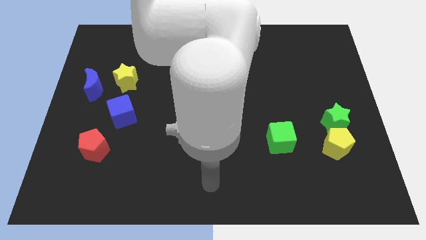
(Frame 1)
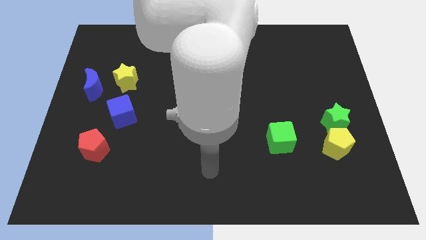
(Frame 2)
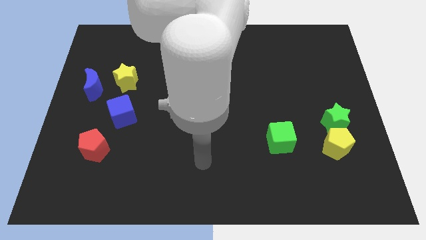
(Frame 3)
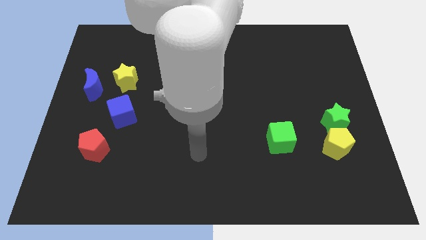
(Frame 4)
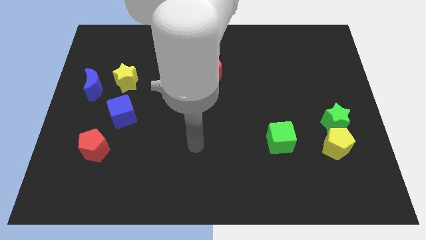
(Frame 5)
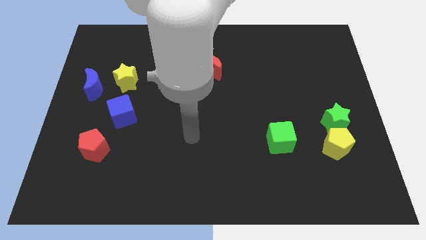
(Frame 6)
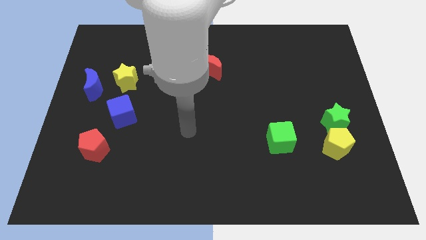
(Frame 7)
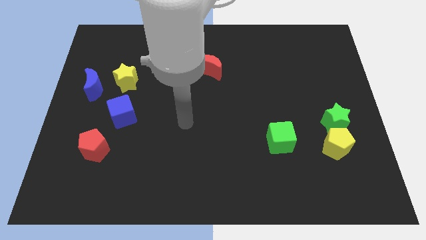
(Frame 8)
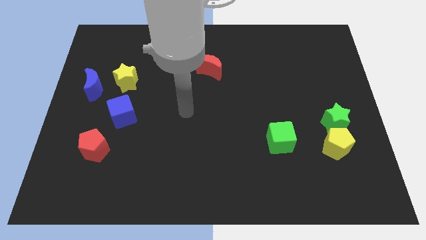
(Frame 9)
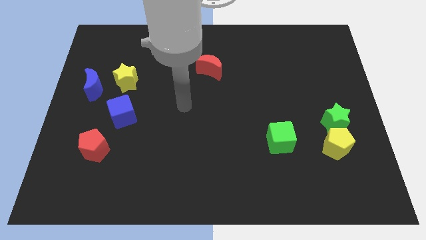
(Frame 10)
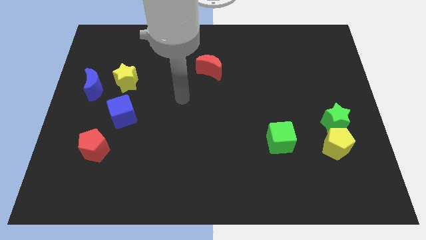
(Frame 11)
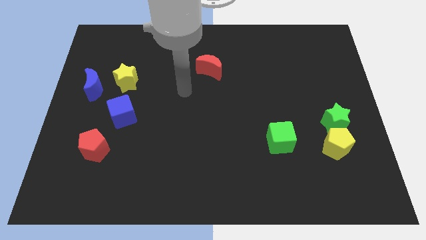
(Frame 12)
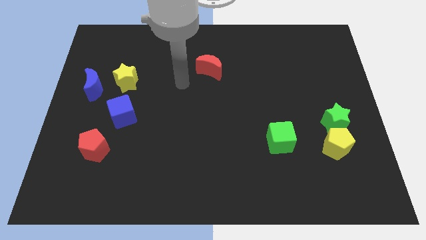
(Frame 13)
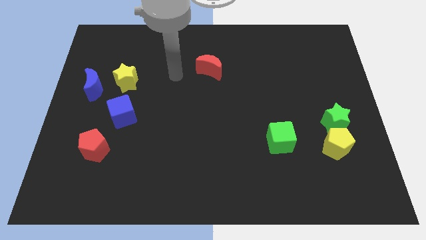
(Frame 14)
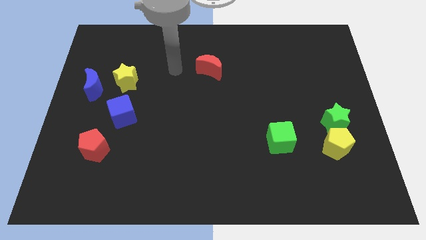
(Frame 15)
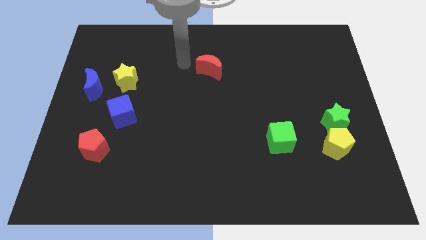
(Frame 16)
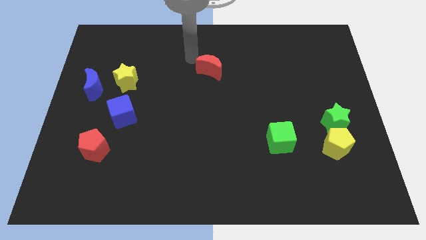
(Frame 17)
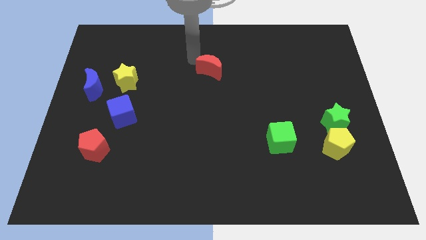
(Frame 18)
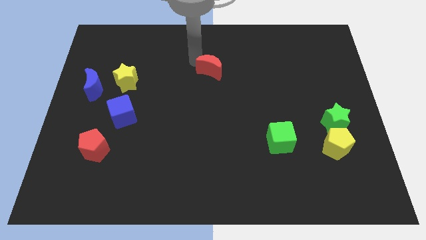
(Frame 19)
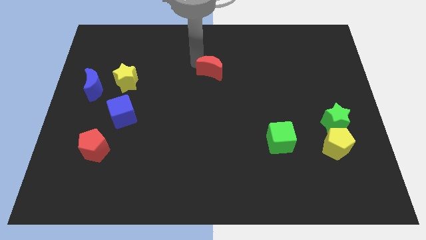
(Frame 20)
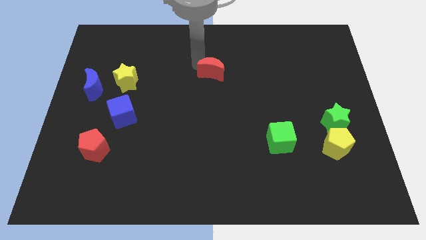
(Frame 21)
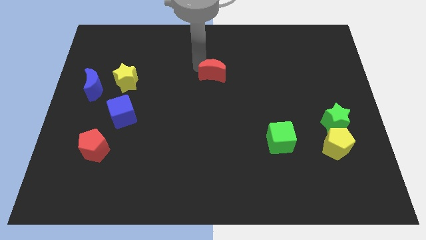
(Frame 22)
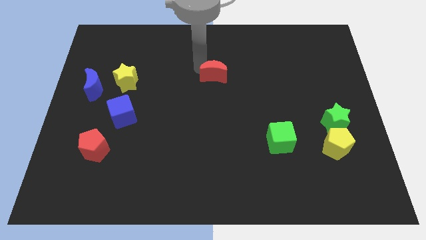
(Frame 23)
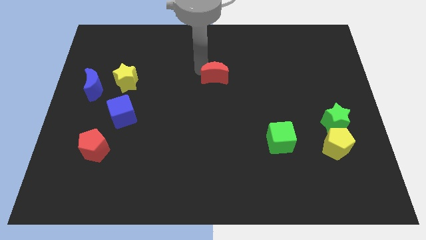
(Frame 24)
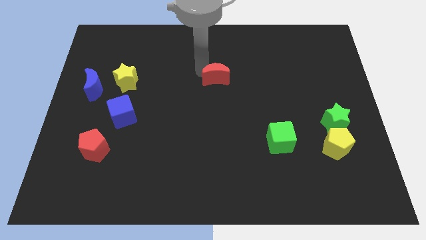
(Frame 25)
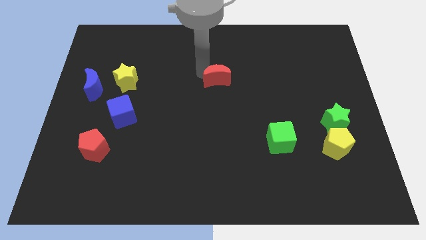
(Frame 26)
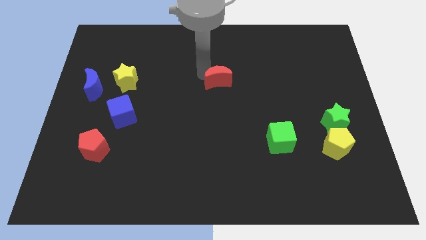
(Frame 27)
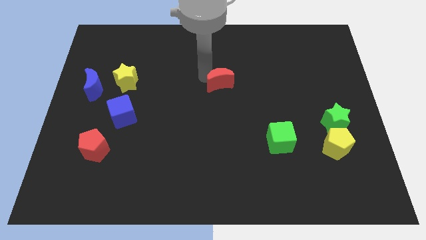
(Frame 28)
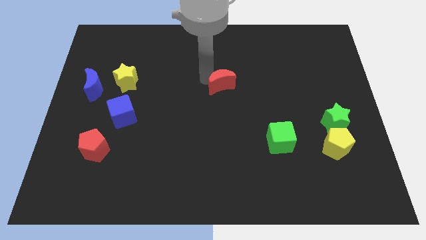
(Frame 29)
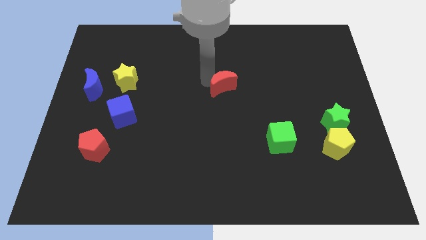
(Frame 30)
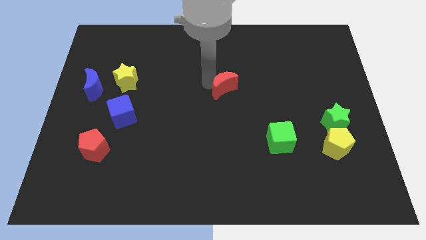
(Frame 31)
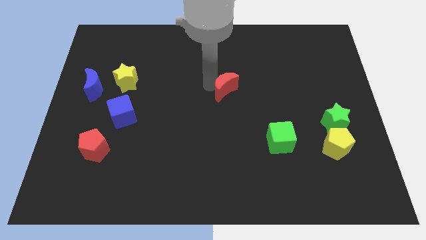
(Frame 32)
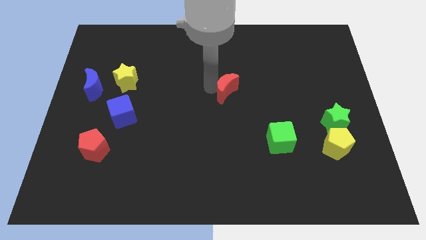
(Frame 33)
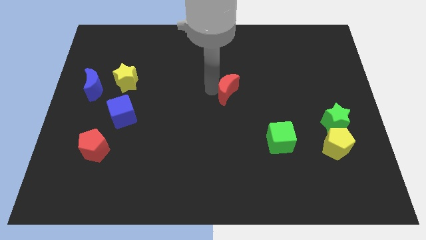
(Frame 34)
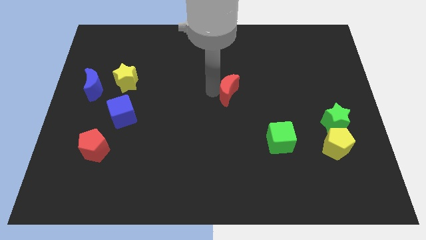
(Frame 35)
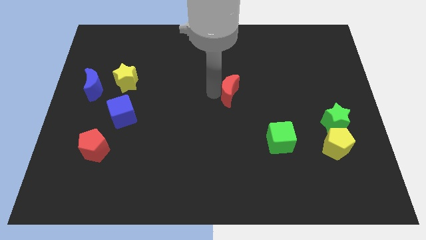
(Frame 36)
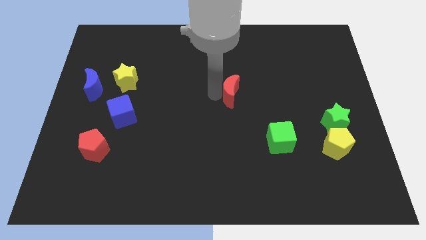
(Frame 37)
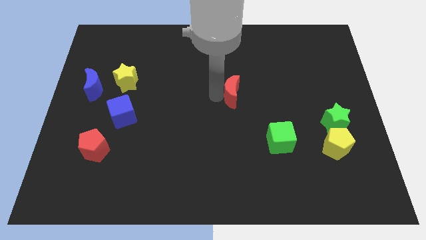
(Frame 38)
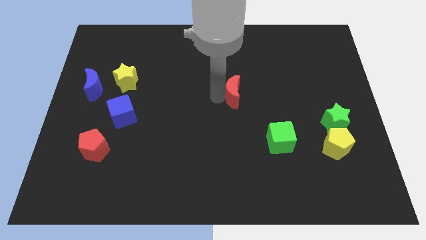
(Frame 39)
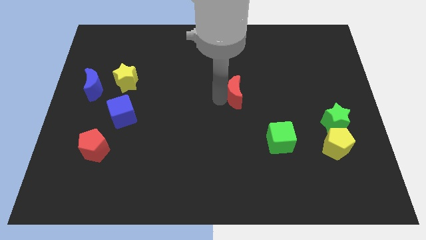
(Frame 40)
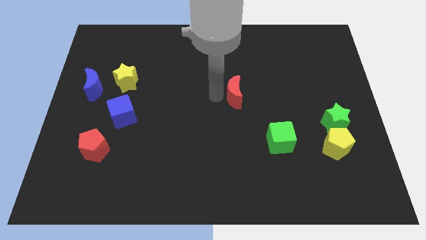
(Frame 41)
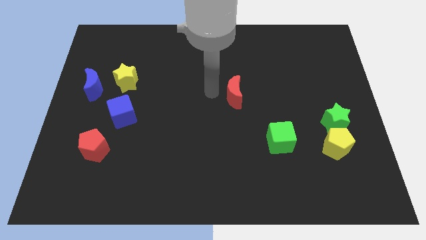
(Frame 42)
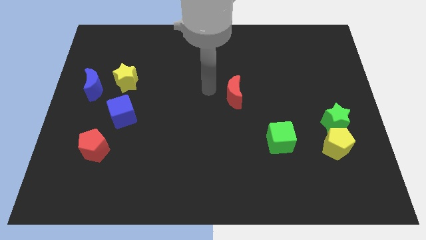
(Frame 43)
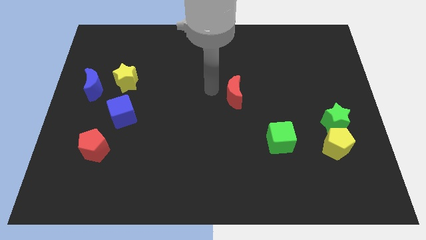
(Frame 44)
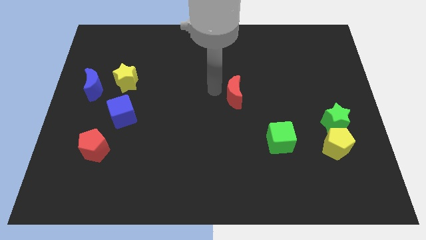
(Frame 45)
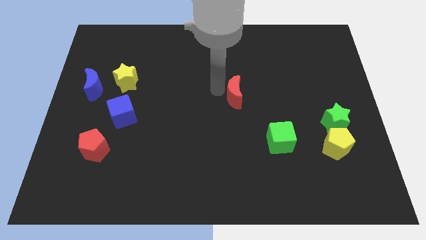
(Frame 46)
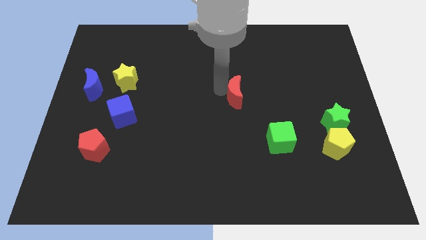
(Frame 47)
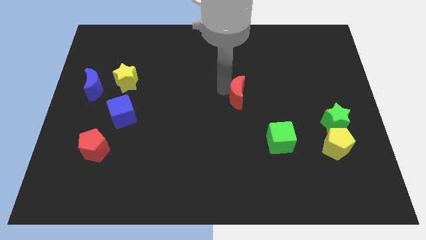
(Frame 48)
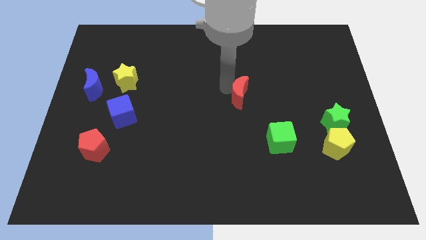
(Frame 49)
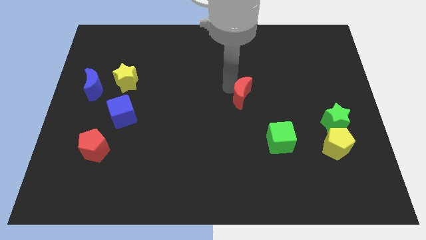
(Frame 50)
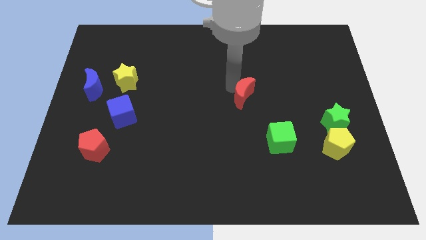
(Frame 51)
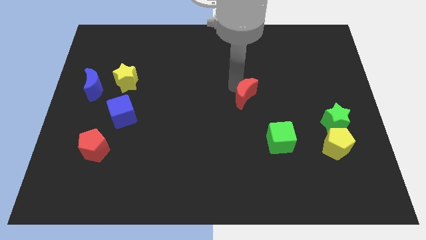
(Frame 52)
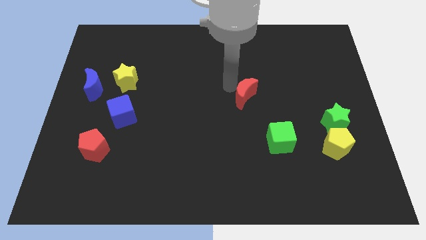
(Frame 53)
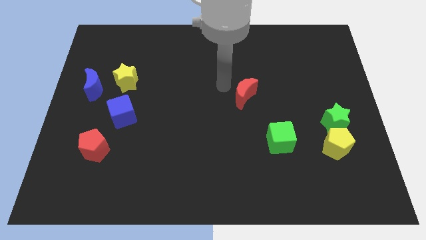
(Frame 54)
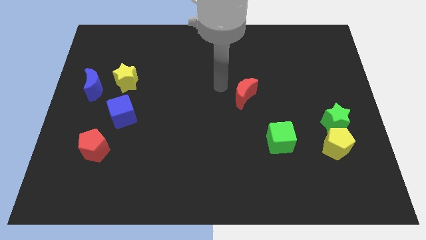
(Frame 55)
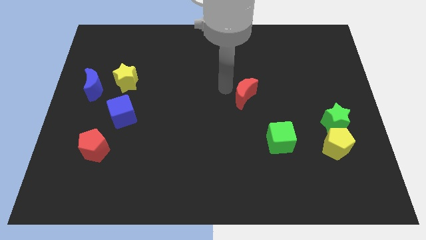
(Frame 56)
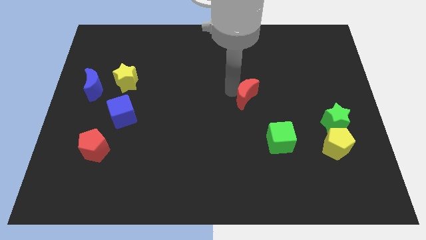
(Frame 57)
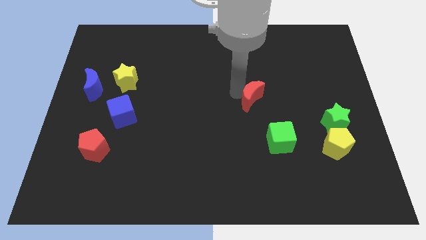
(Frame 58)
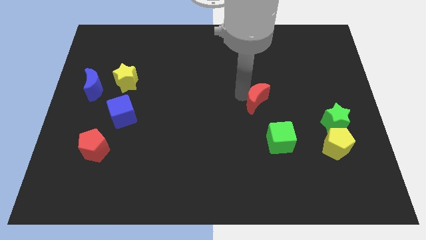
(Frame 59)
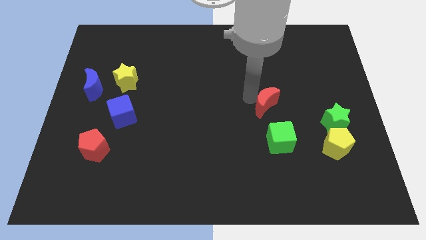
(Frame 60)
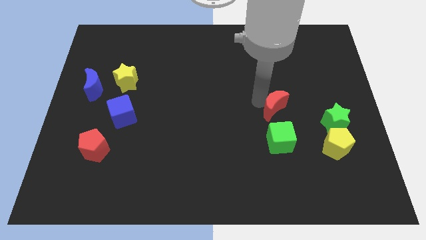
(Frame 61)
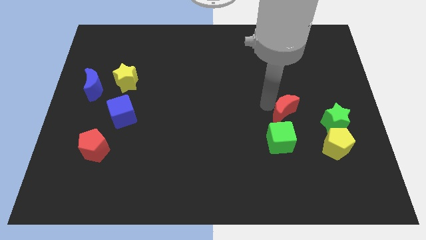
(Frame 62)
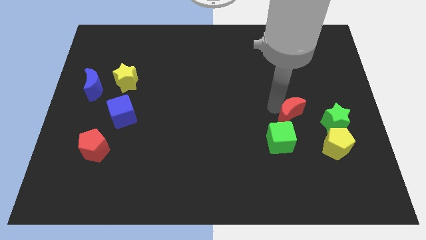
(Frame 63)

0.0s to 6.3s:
move the red moon to the top left of the yellow pentagon
